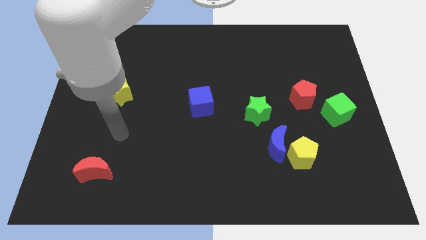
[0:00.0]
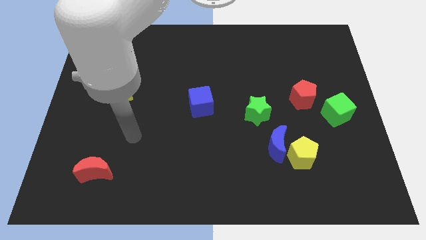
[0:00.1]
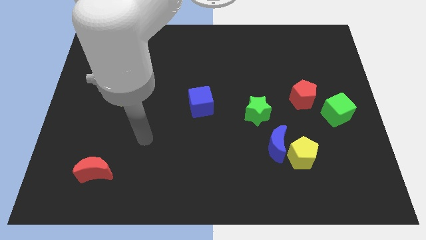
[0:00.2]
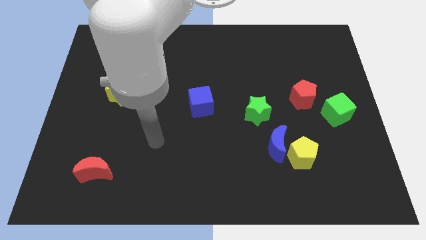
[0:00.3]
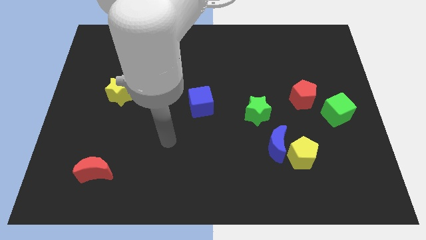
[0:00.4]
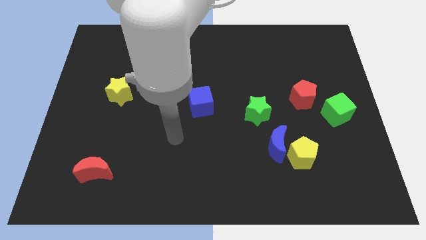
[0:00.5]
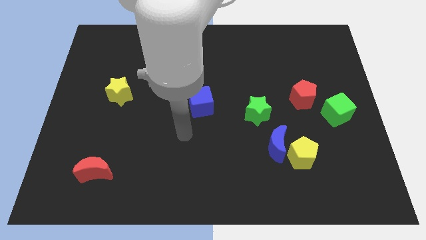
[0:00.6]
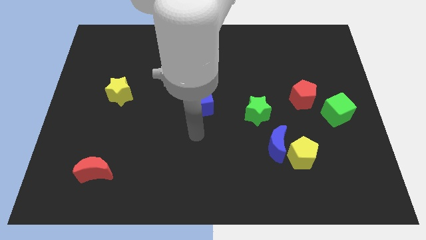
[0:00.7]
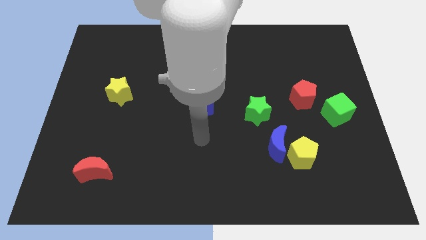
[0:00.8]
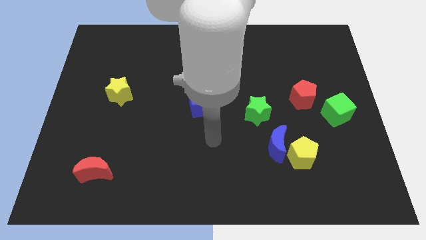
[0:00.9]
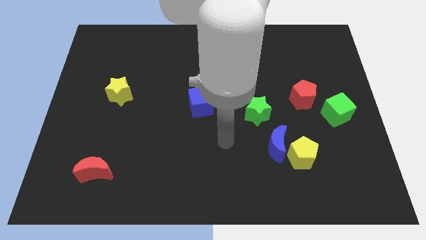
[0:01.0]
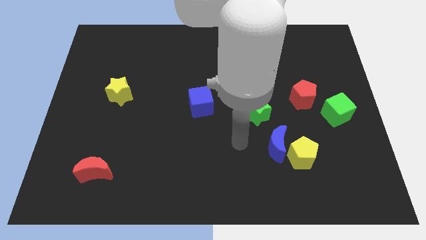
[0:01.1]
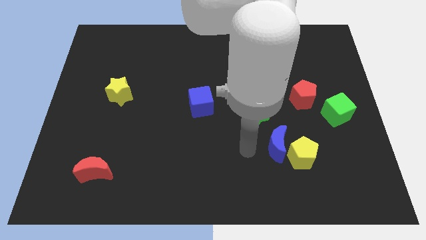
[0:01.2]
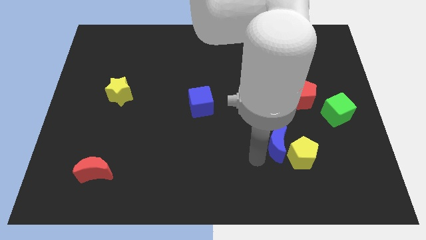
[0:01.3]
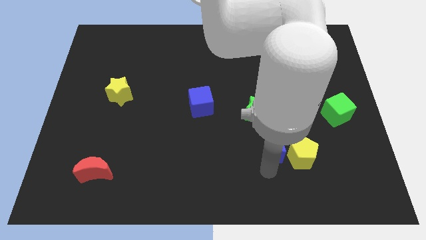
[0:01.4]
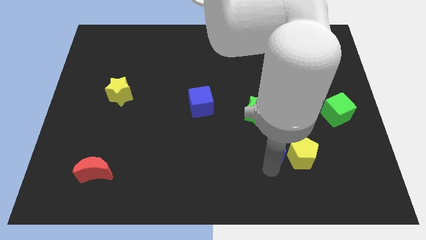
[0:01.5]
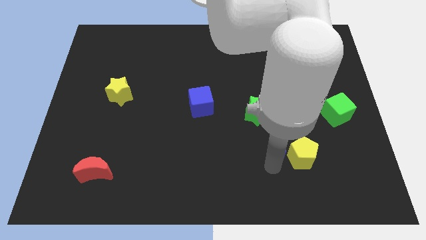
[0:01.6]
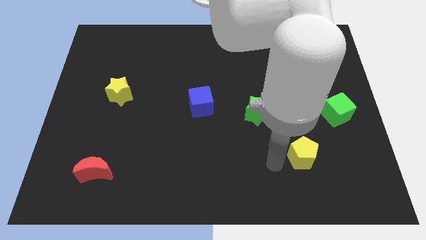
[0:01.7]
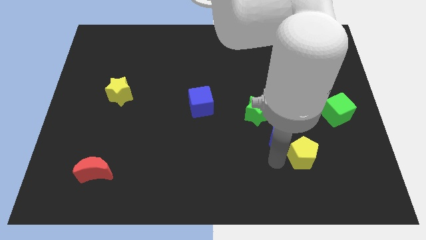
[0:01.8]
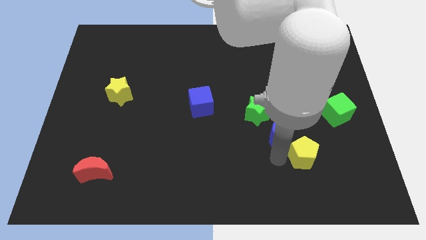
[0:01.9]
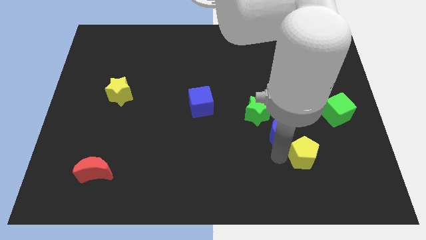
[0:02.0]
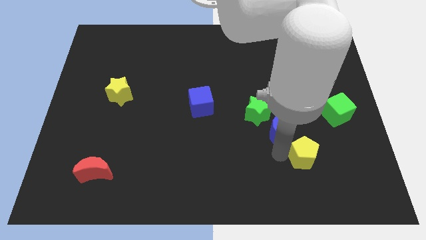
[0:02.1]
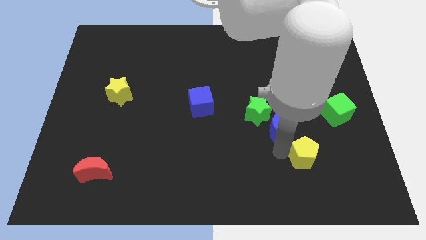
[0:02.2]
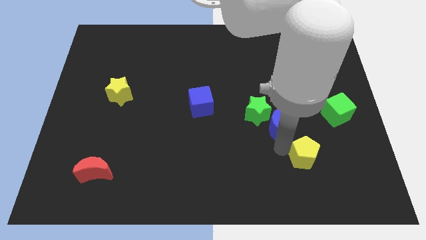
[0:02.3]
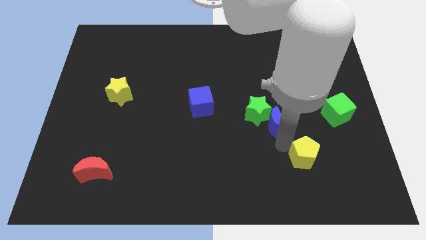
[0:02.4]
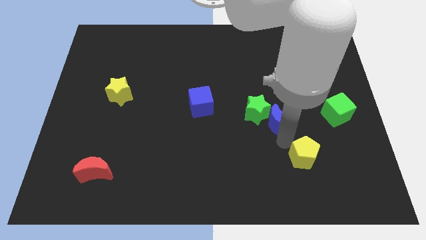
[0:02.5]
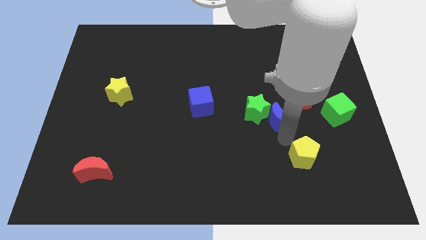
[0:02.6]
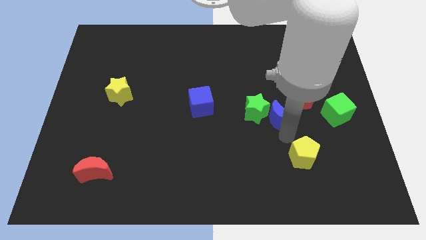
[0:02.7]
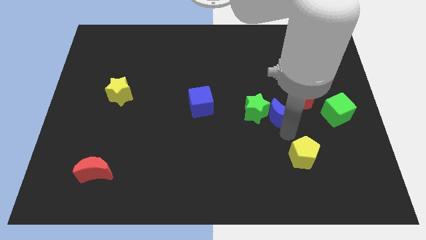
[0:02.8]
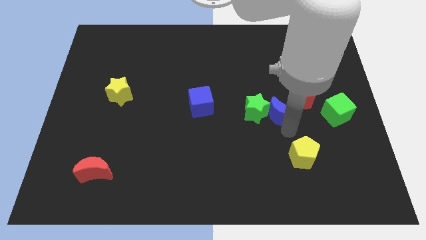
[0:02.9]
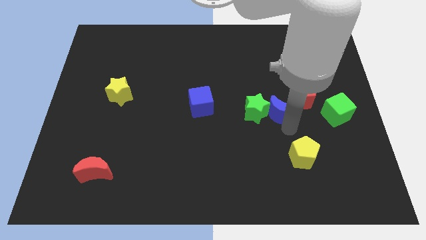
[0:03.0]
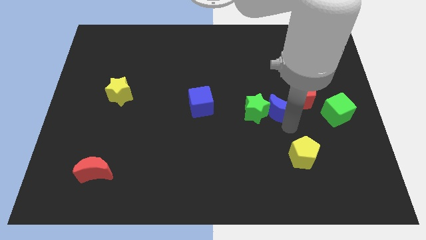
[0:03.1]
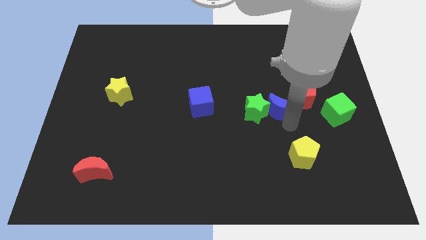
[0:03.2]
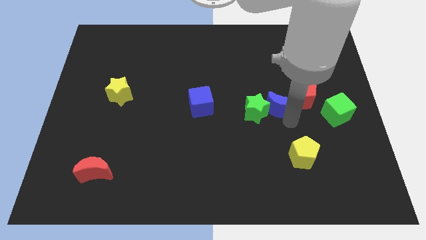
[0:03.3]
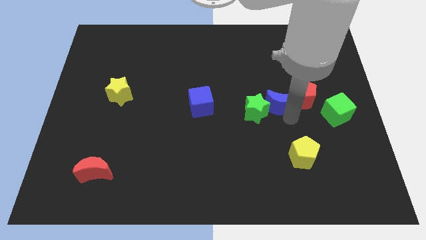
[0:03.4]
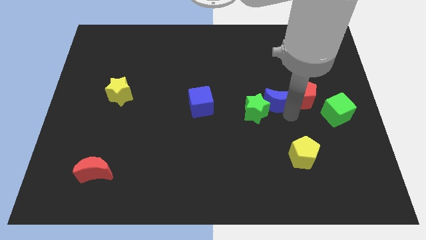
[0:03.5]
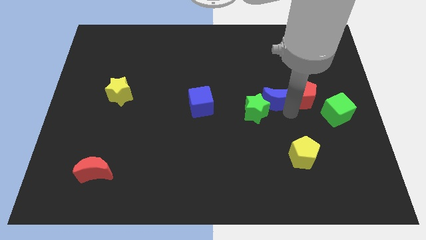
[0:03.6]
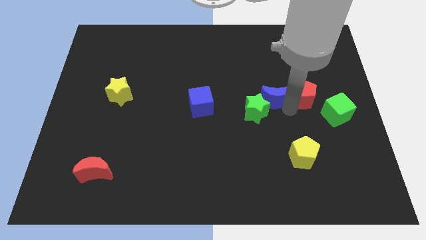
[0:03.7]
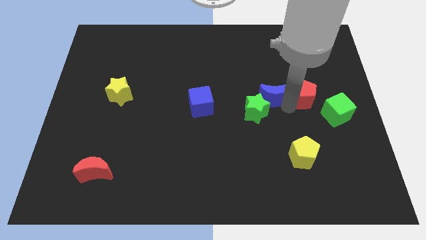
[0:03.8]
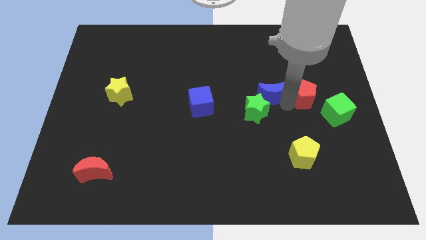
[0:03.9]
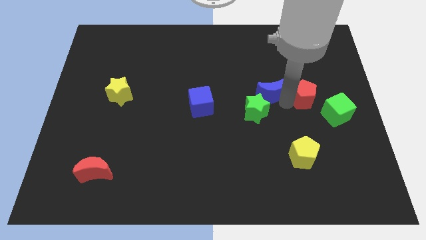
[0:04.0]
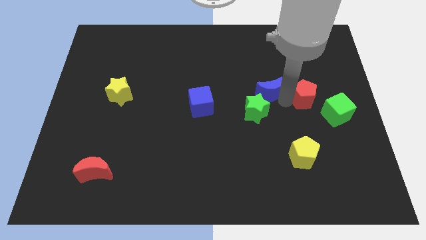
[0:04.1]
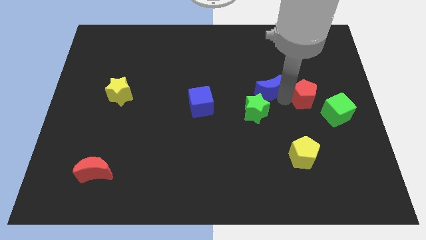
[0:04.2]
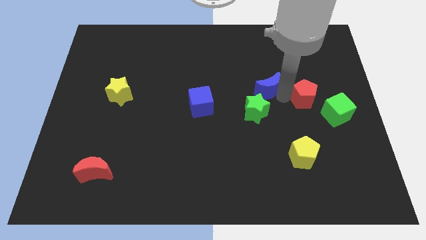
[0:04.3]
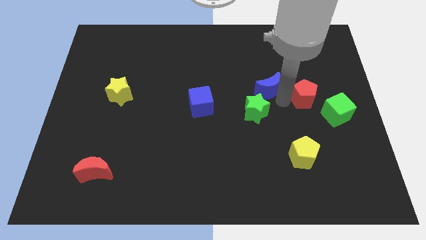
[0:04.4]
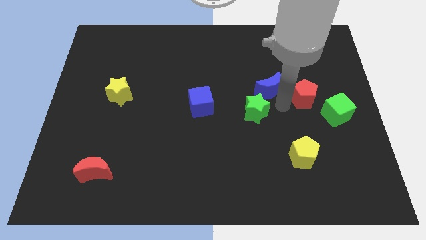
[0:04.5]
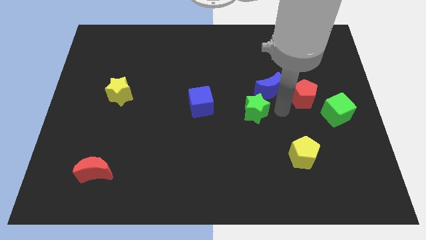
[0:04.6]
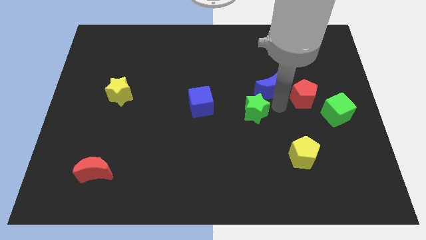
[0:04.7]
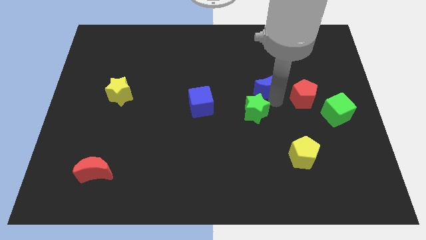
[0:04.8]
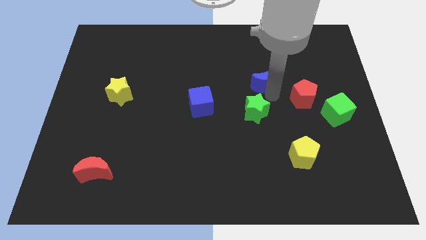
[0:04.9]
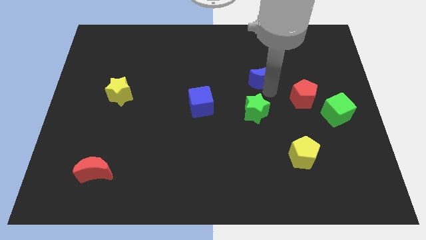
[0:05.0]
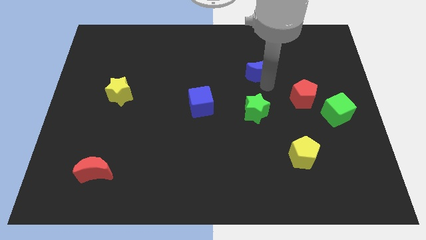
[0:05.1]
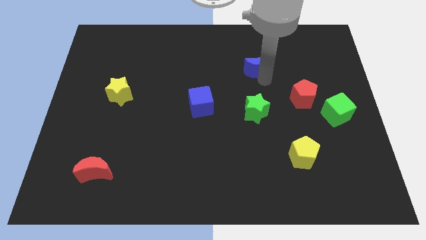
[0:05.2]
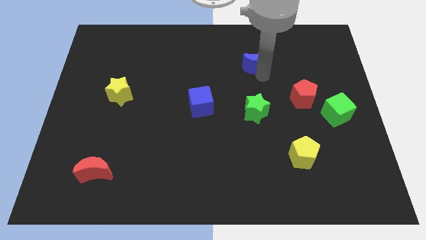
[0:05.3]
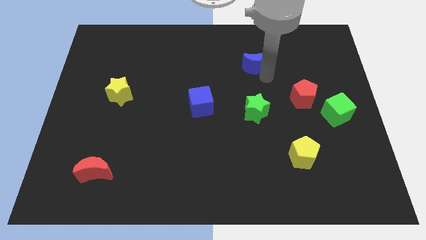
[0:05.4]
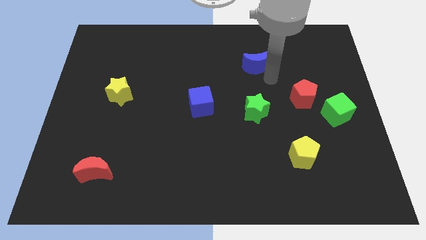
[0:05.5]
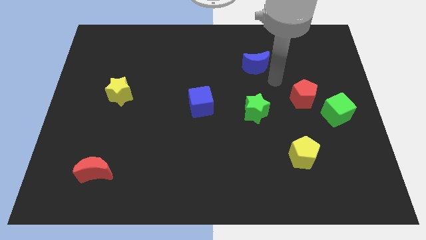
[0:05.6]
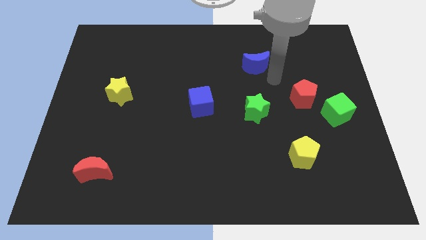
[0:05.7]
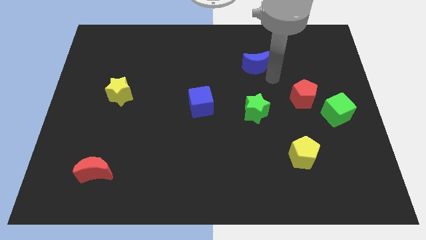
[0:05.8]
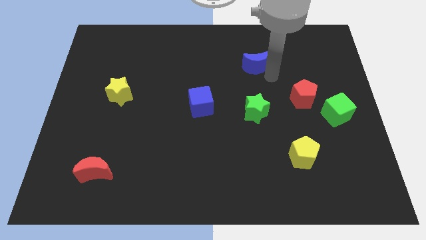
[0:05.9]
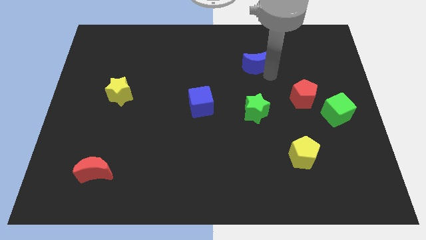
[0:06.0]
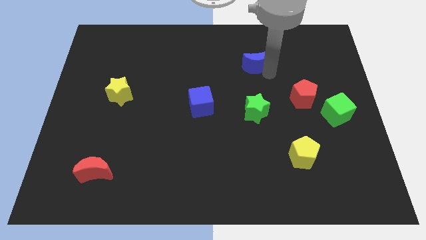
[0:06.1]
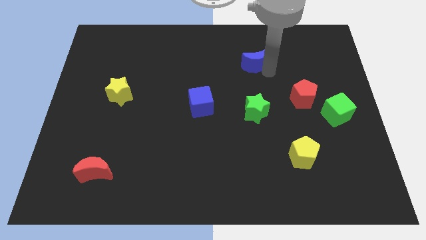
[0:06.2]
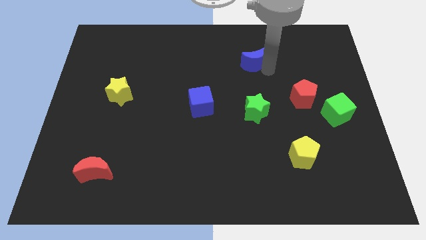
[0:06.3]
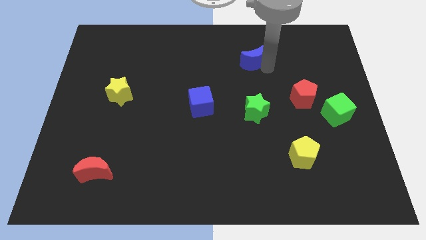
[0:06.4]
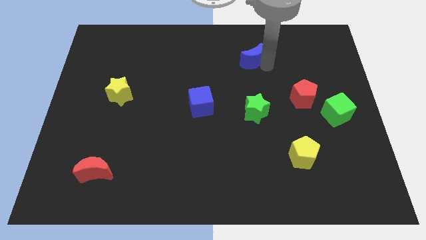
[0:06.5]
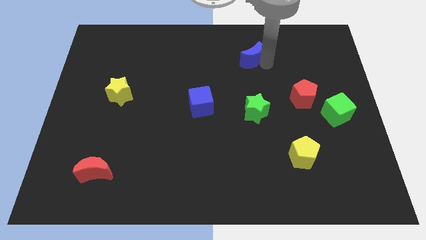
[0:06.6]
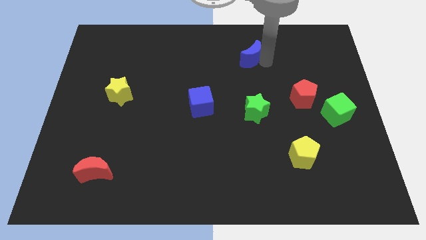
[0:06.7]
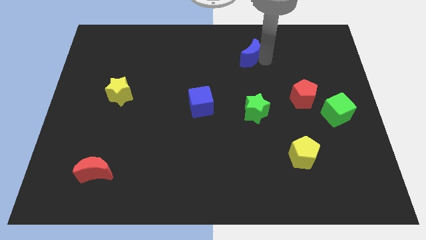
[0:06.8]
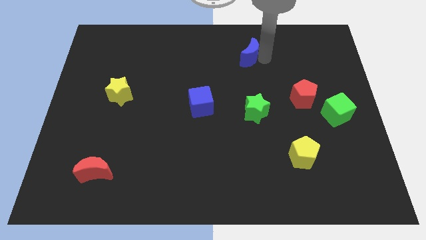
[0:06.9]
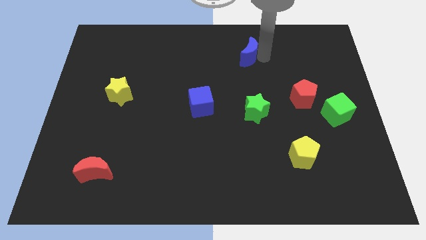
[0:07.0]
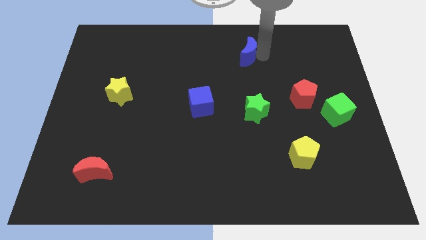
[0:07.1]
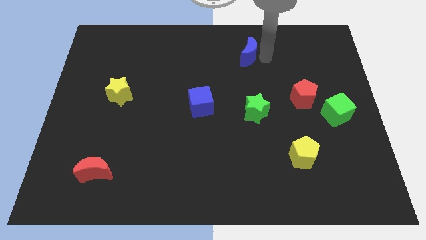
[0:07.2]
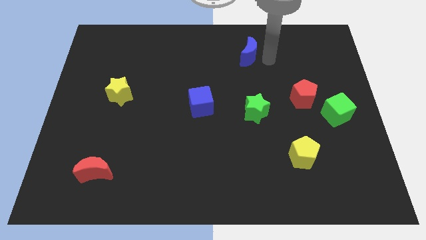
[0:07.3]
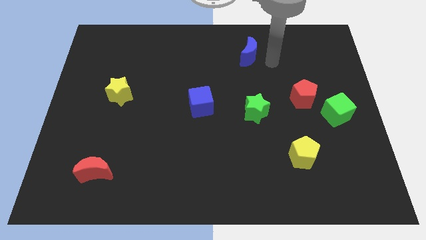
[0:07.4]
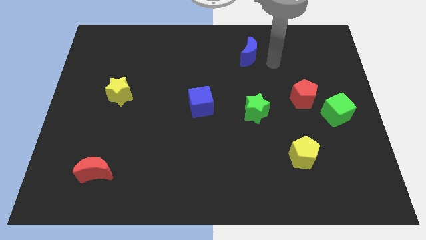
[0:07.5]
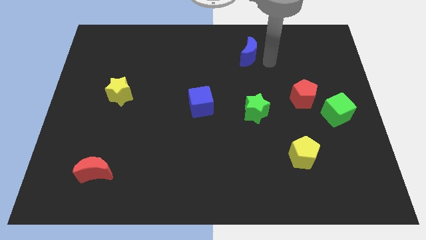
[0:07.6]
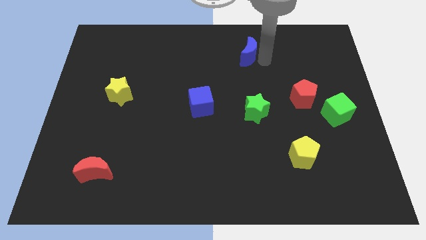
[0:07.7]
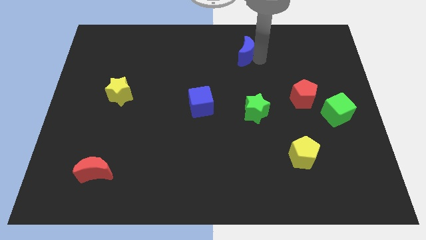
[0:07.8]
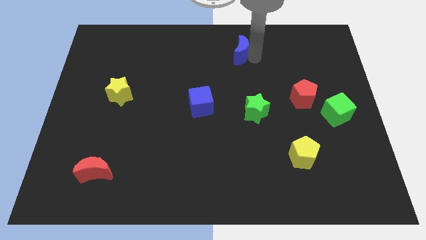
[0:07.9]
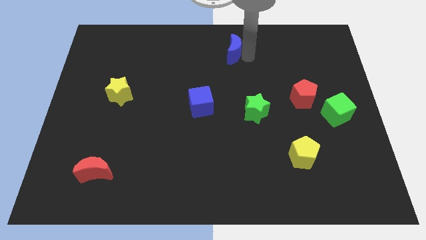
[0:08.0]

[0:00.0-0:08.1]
move the blue moon to the top side
